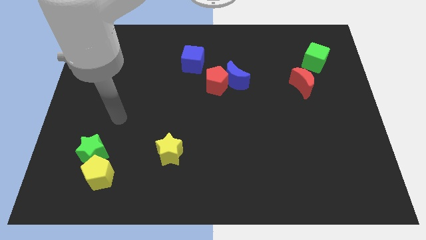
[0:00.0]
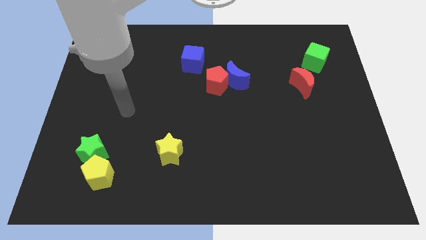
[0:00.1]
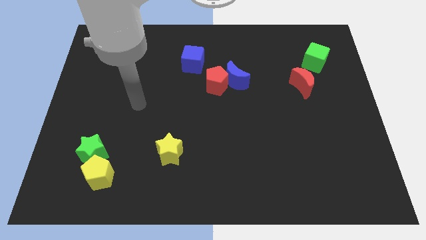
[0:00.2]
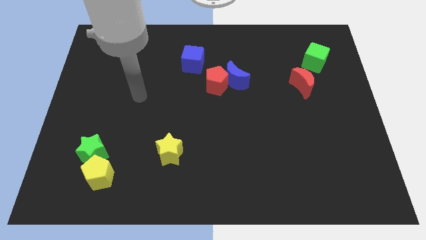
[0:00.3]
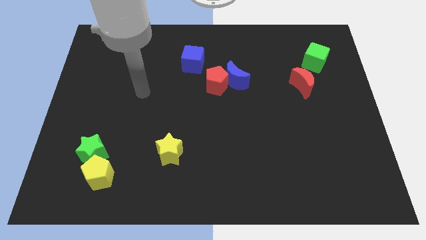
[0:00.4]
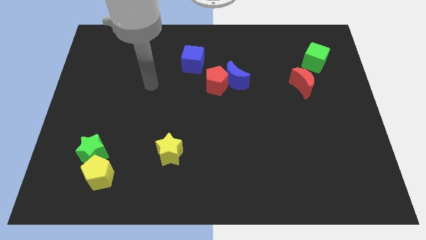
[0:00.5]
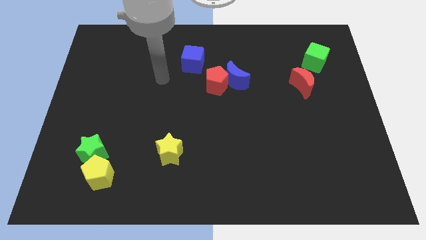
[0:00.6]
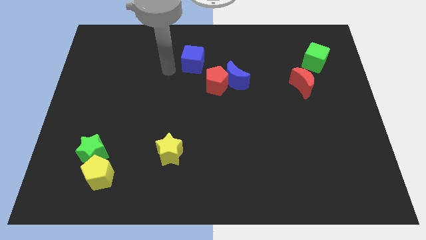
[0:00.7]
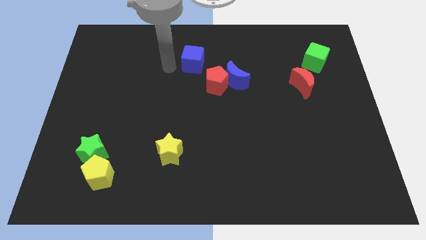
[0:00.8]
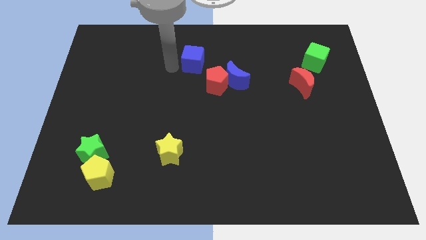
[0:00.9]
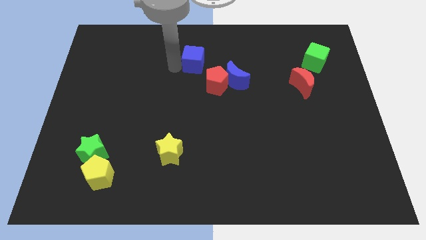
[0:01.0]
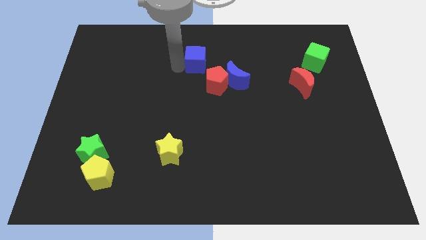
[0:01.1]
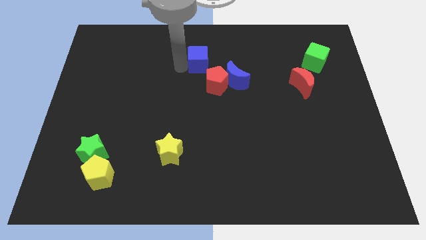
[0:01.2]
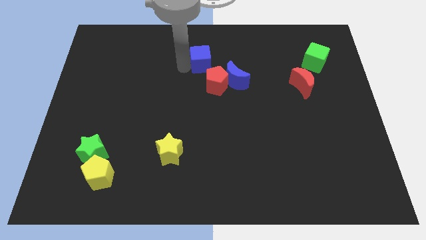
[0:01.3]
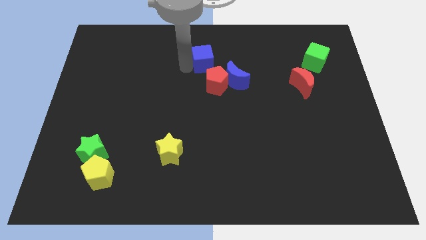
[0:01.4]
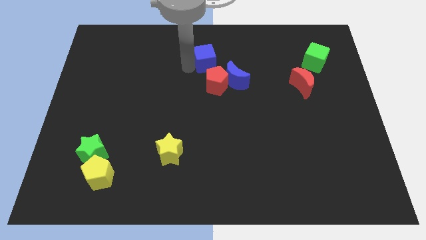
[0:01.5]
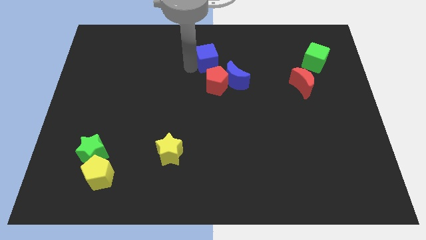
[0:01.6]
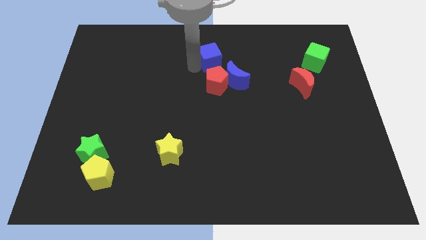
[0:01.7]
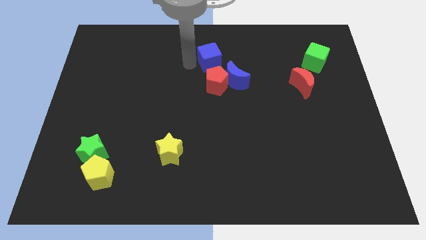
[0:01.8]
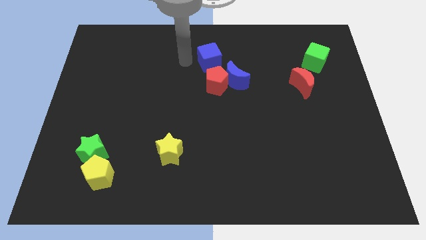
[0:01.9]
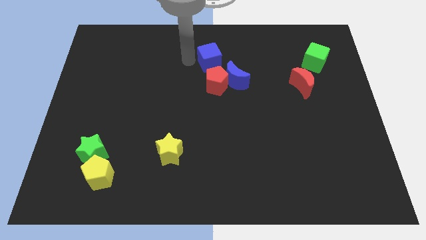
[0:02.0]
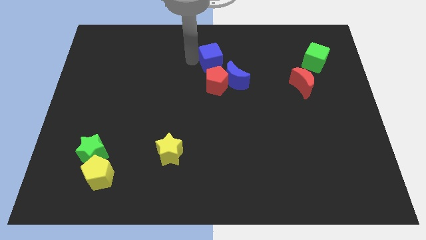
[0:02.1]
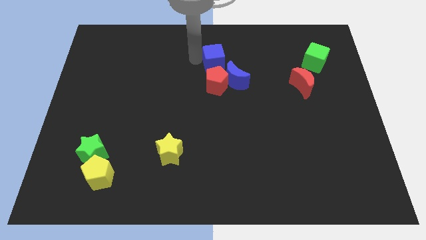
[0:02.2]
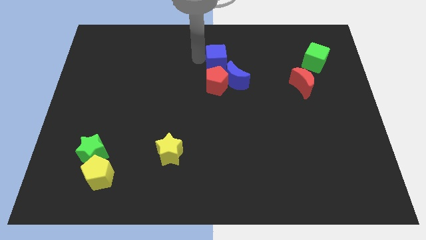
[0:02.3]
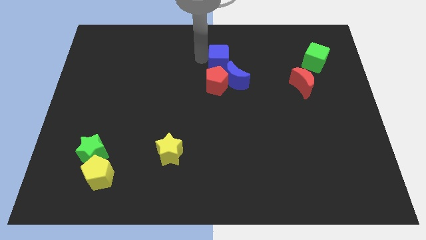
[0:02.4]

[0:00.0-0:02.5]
slightly slide the blue cube right

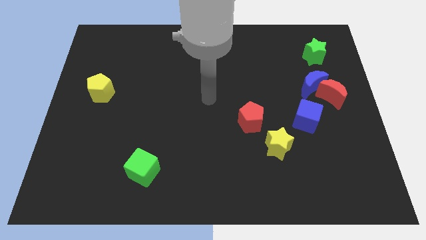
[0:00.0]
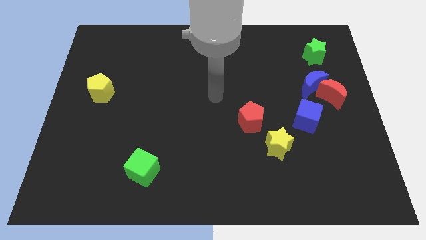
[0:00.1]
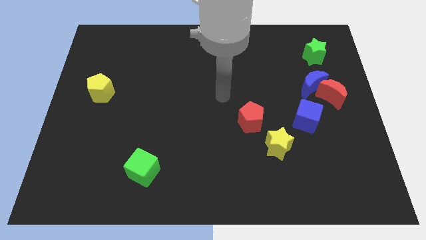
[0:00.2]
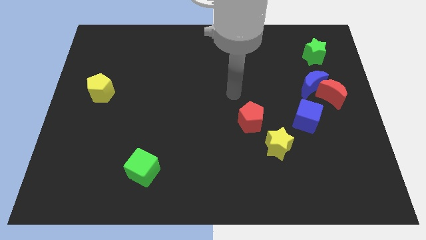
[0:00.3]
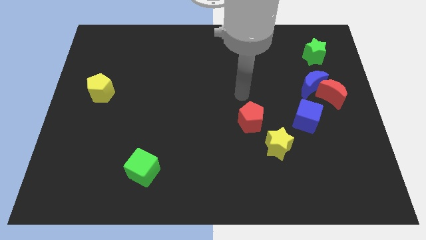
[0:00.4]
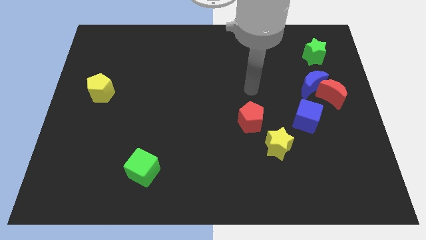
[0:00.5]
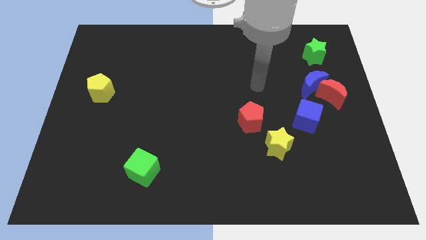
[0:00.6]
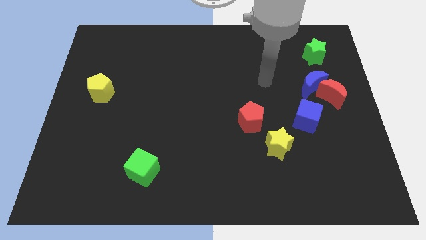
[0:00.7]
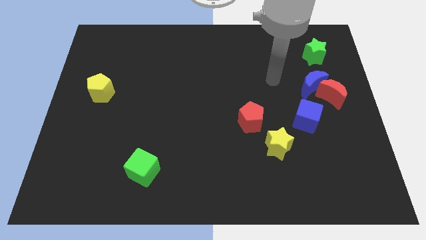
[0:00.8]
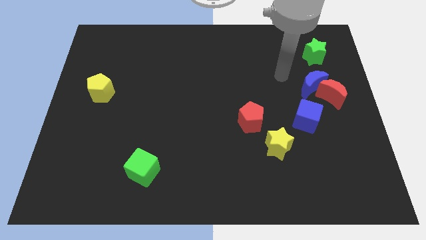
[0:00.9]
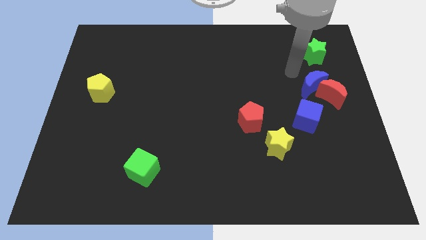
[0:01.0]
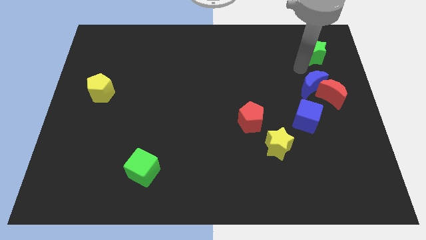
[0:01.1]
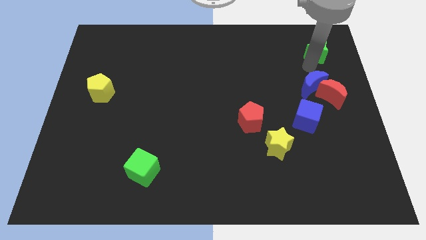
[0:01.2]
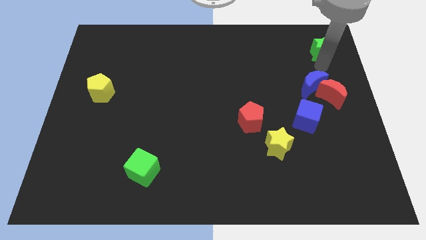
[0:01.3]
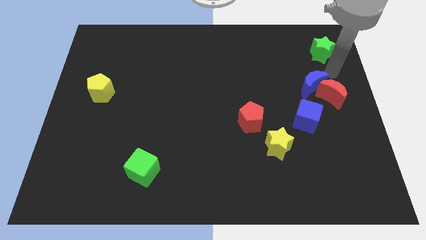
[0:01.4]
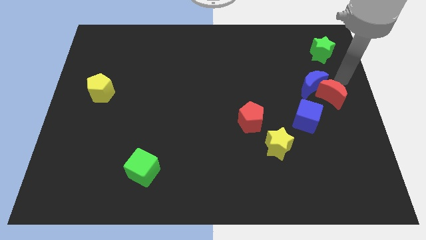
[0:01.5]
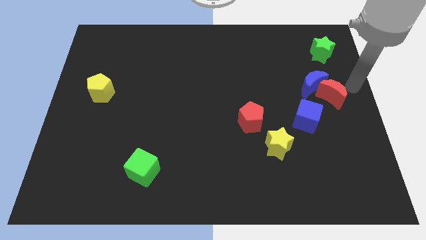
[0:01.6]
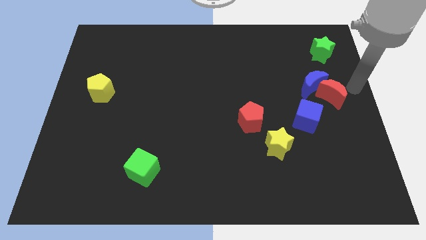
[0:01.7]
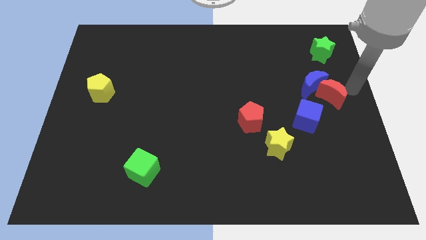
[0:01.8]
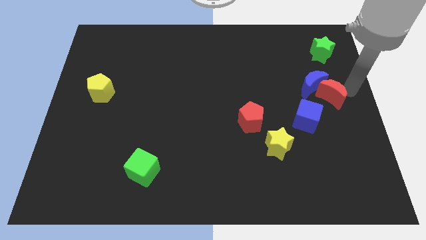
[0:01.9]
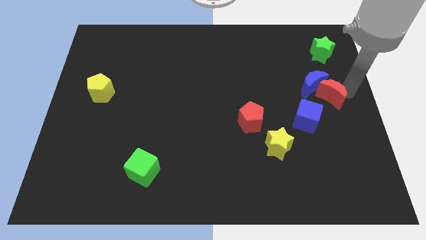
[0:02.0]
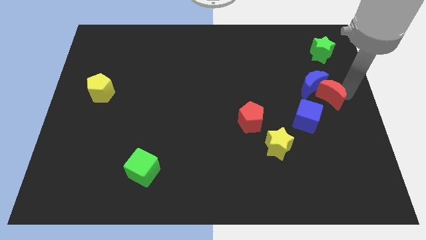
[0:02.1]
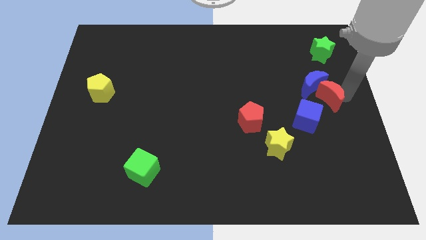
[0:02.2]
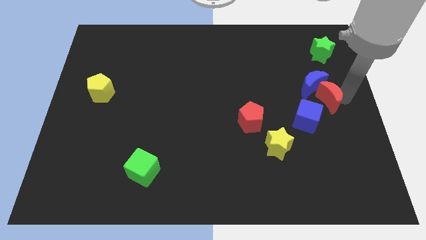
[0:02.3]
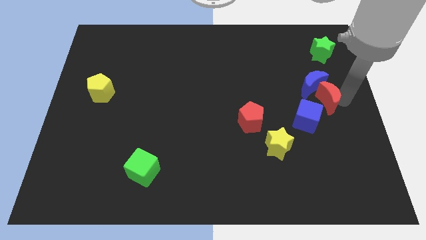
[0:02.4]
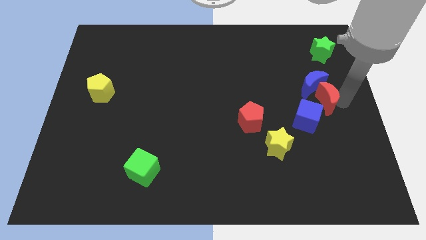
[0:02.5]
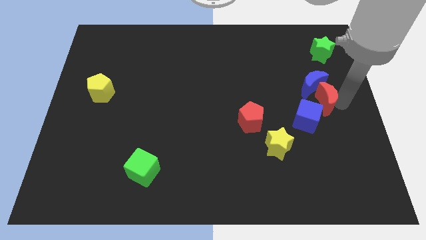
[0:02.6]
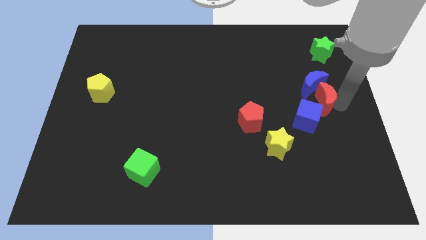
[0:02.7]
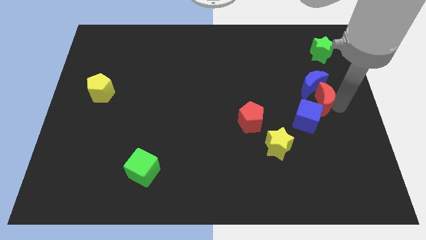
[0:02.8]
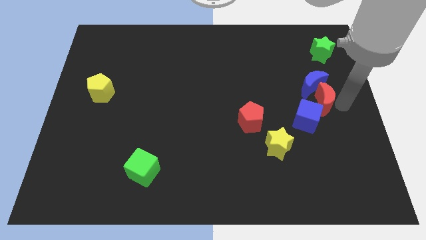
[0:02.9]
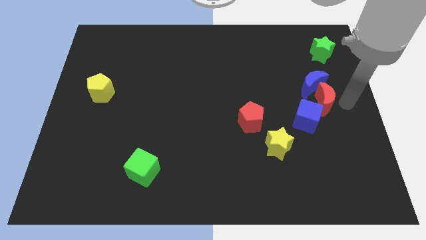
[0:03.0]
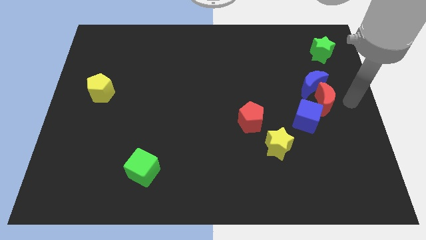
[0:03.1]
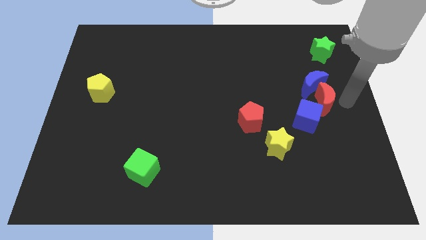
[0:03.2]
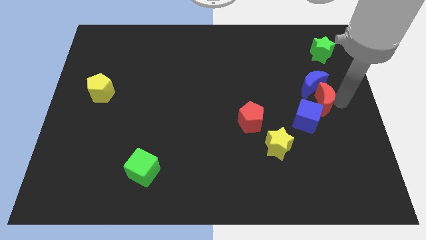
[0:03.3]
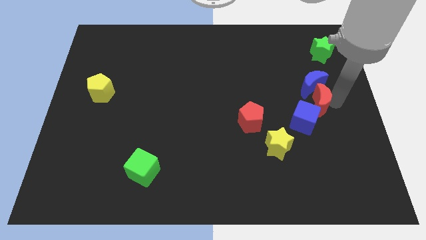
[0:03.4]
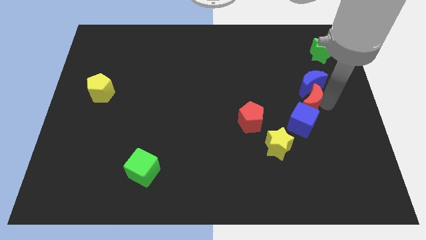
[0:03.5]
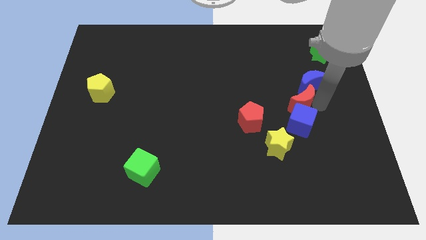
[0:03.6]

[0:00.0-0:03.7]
slightly slide the red moon to the left

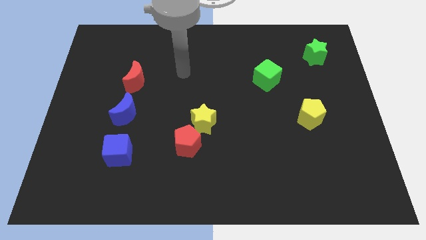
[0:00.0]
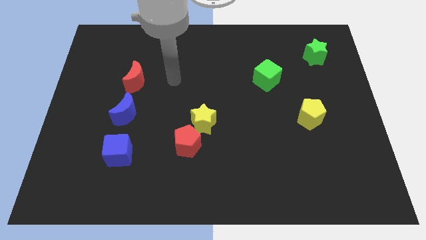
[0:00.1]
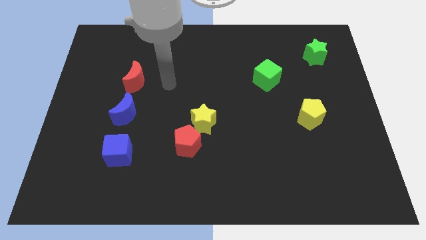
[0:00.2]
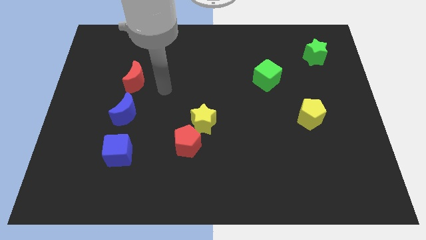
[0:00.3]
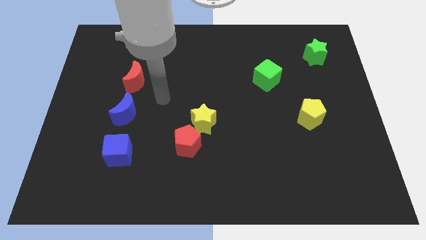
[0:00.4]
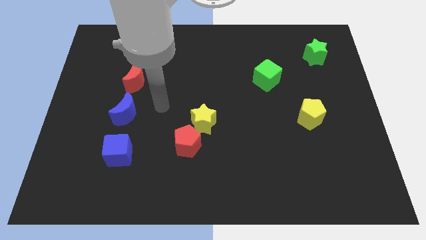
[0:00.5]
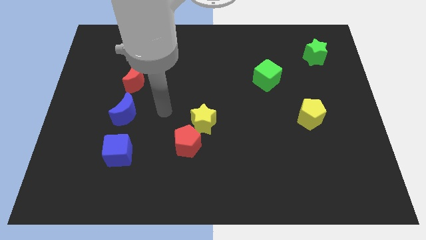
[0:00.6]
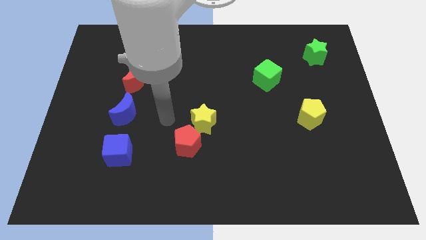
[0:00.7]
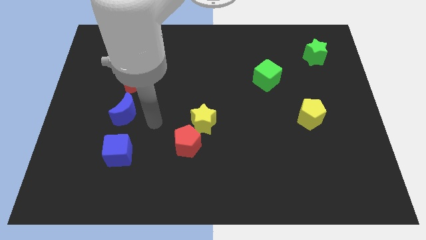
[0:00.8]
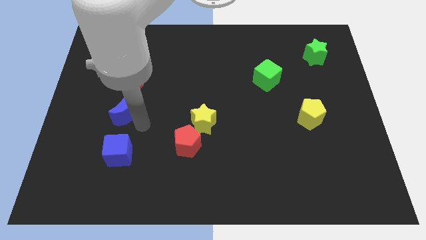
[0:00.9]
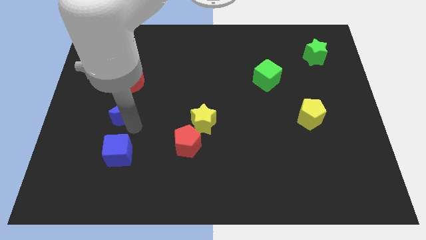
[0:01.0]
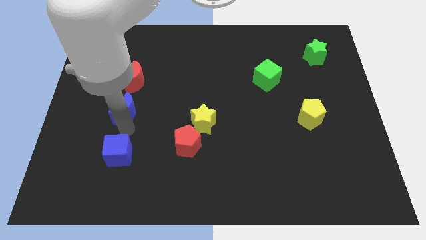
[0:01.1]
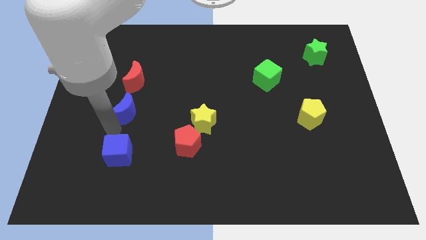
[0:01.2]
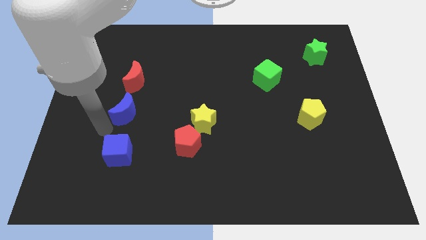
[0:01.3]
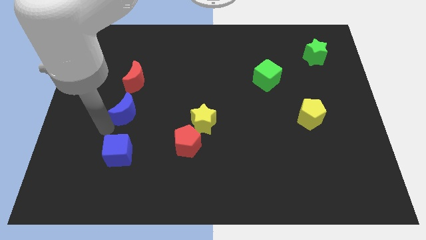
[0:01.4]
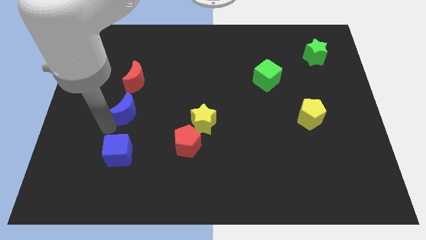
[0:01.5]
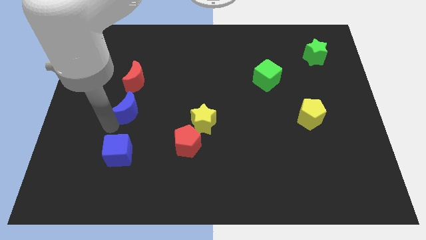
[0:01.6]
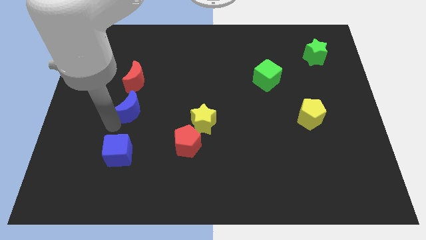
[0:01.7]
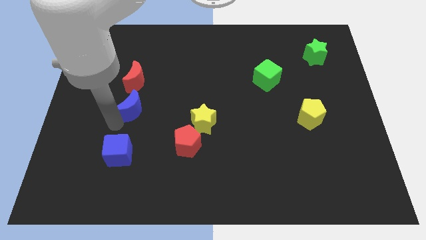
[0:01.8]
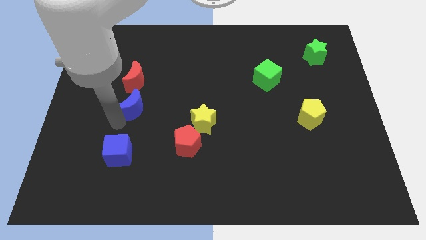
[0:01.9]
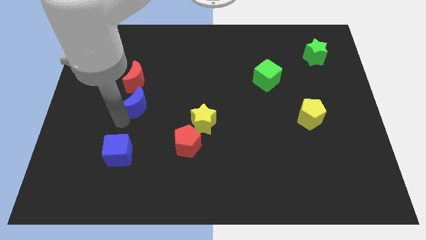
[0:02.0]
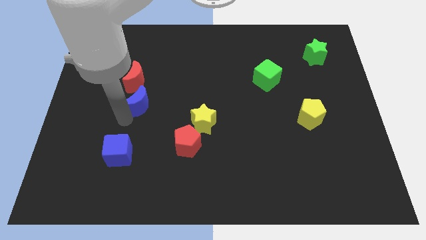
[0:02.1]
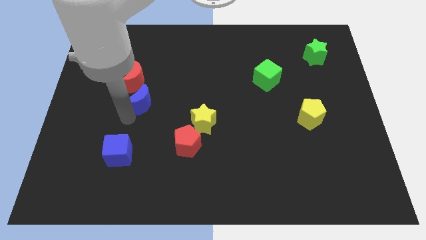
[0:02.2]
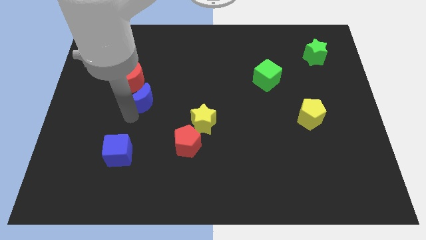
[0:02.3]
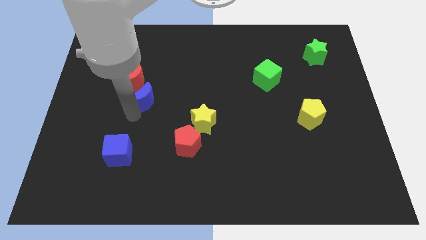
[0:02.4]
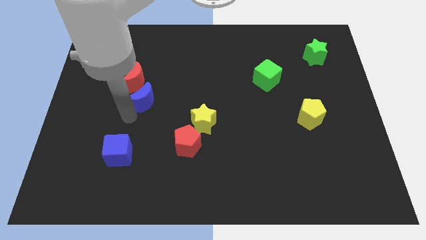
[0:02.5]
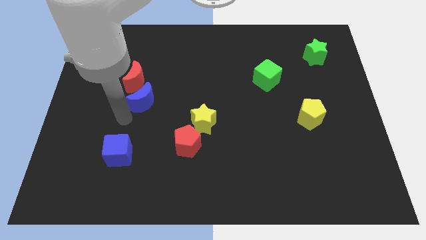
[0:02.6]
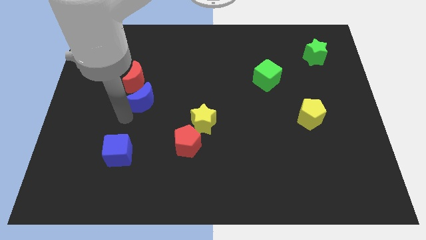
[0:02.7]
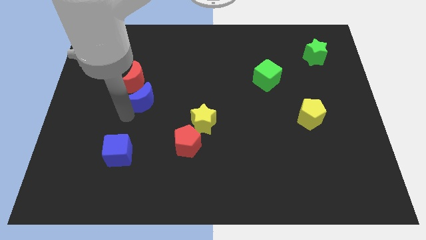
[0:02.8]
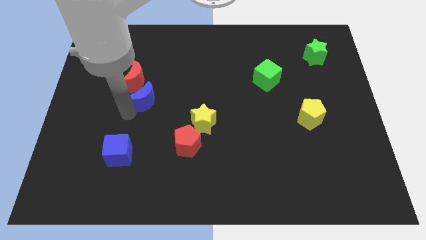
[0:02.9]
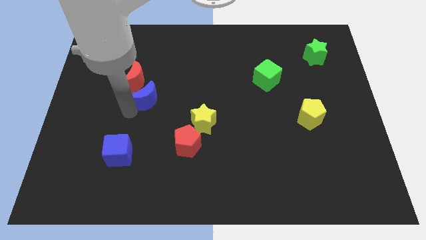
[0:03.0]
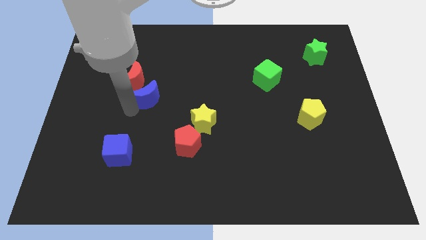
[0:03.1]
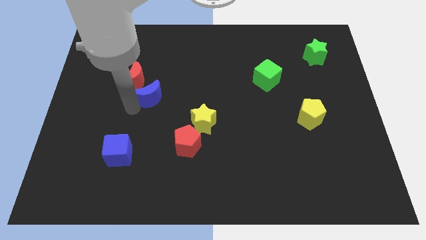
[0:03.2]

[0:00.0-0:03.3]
slightly push the blue moon up and to the right diagonally
